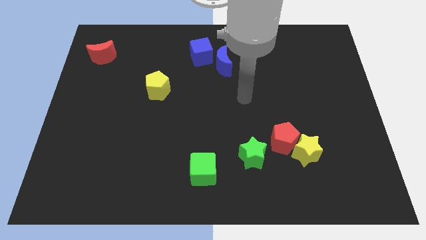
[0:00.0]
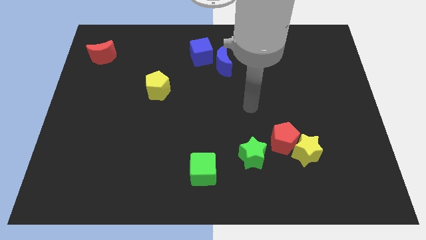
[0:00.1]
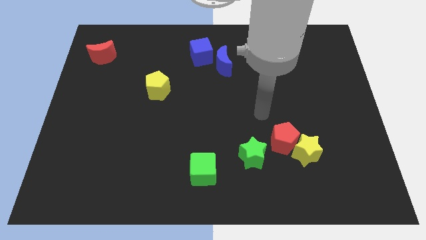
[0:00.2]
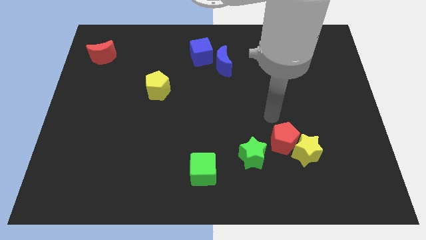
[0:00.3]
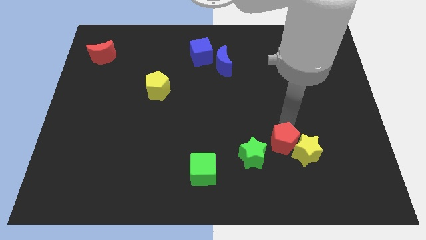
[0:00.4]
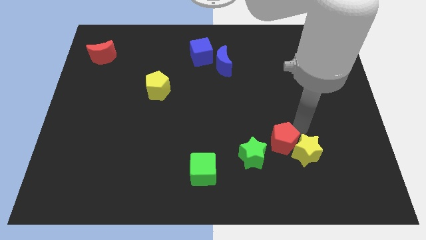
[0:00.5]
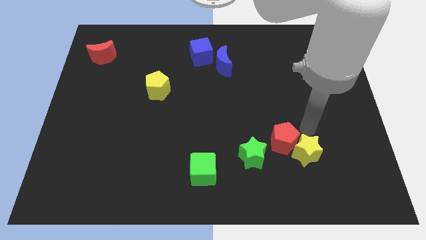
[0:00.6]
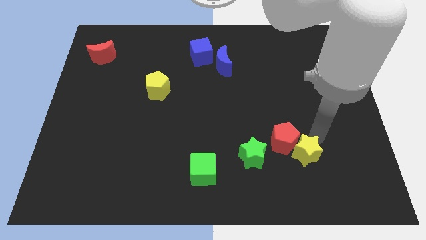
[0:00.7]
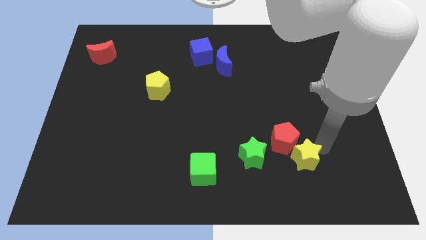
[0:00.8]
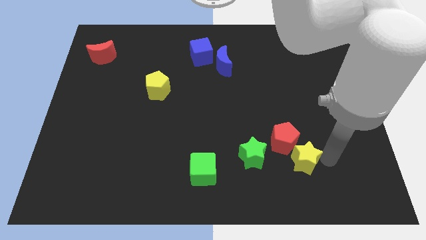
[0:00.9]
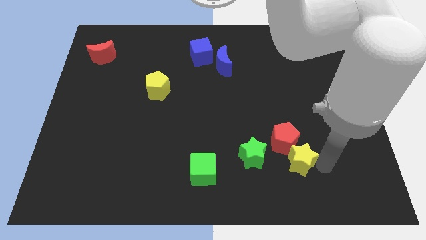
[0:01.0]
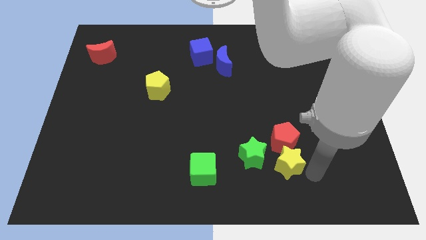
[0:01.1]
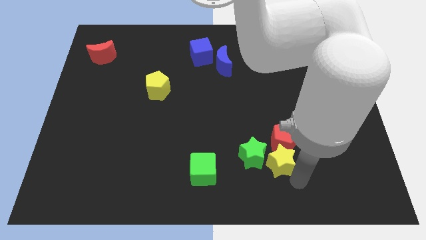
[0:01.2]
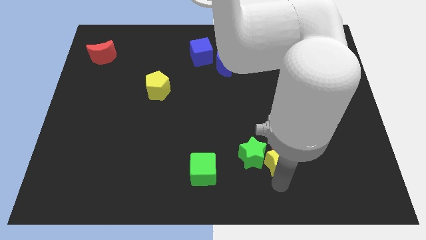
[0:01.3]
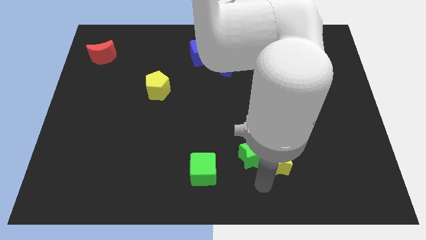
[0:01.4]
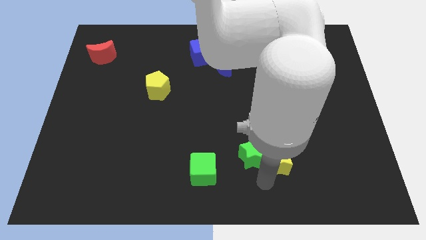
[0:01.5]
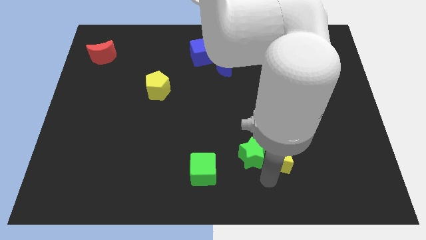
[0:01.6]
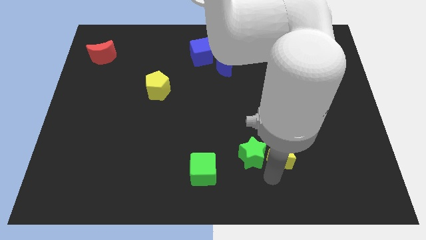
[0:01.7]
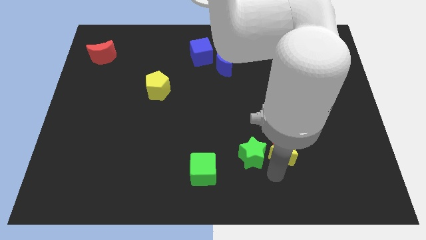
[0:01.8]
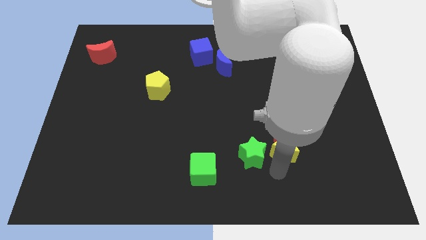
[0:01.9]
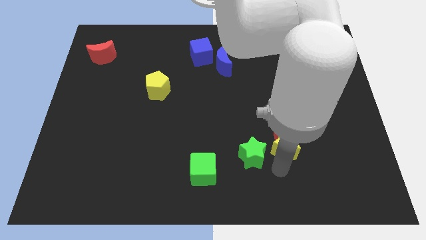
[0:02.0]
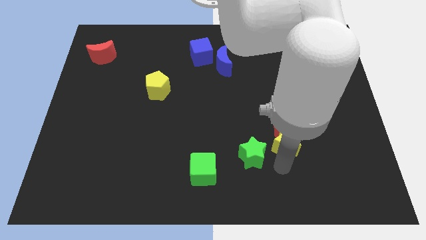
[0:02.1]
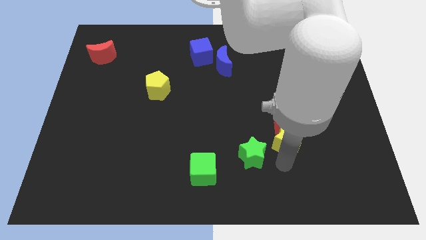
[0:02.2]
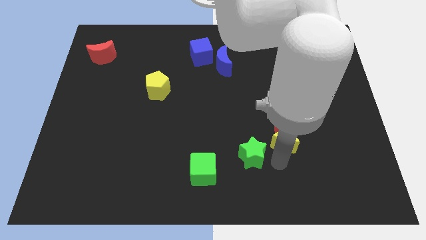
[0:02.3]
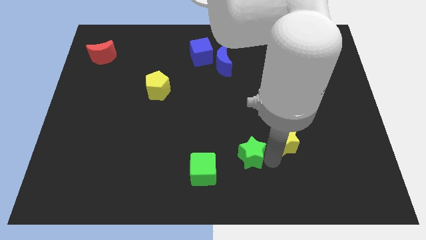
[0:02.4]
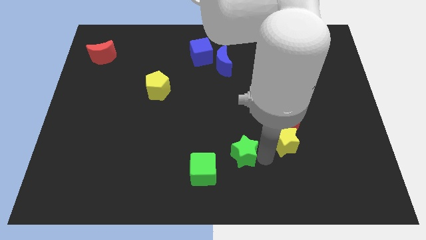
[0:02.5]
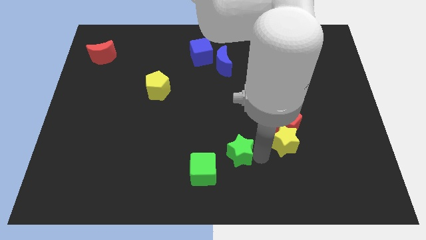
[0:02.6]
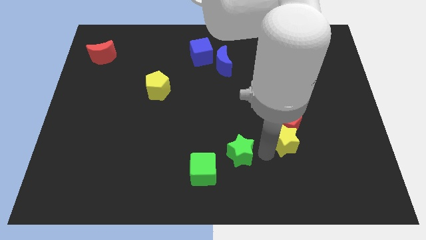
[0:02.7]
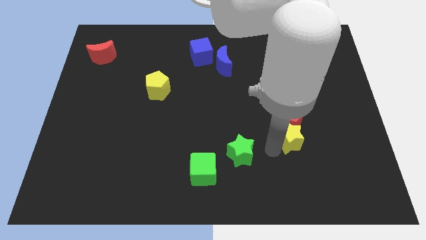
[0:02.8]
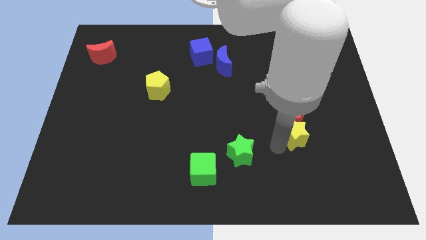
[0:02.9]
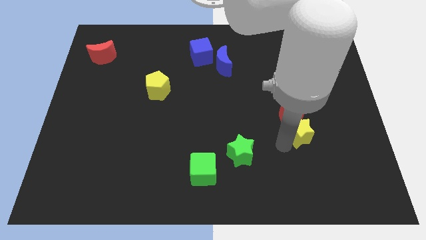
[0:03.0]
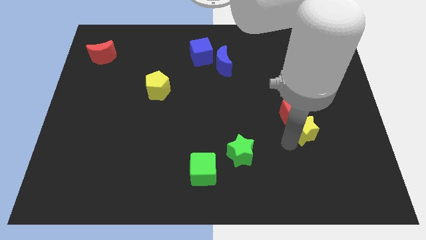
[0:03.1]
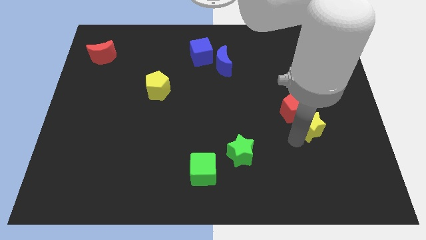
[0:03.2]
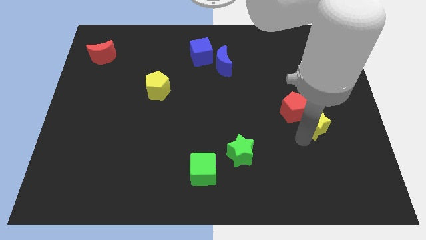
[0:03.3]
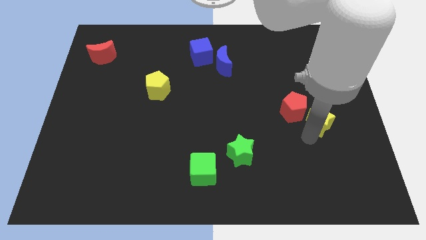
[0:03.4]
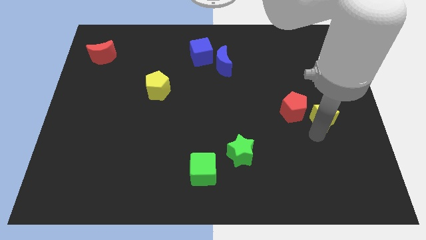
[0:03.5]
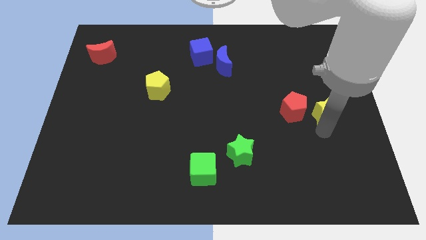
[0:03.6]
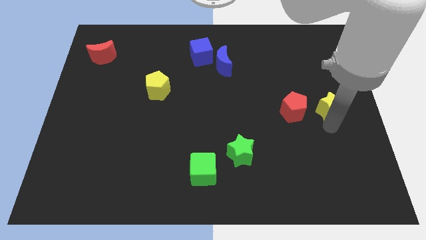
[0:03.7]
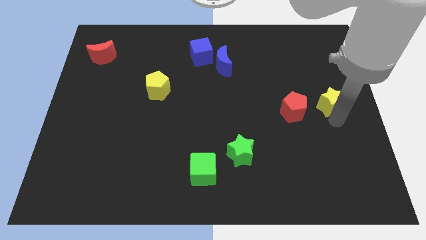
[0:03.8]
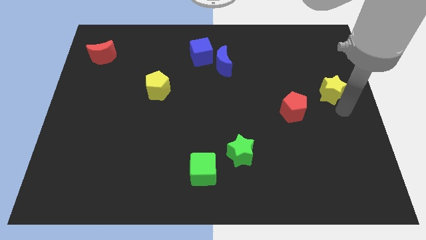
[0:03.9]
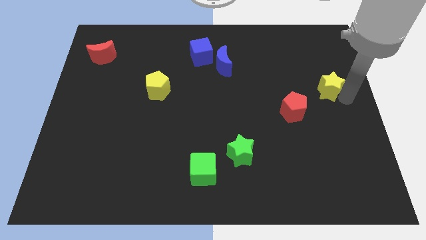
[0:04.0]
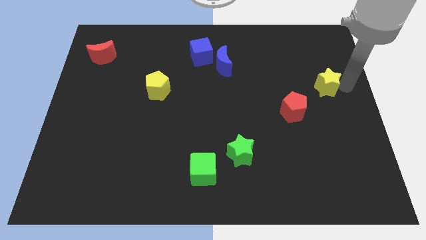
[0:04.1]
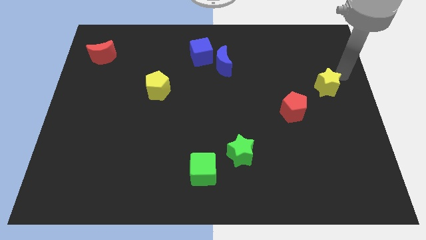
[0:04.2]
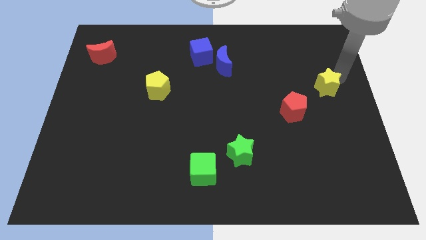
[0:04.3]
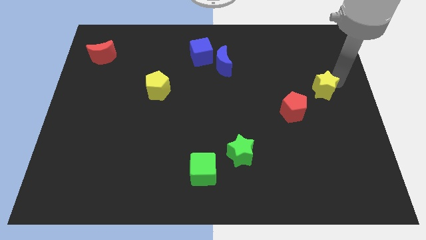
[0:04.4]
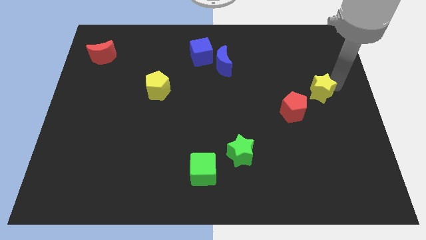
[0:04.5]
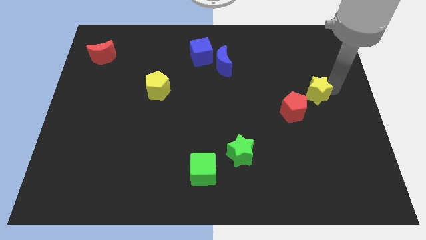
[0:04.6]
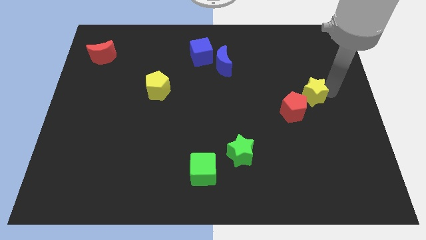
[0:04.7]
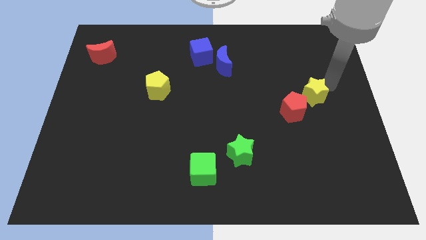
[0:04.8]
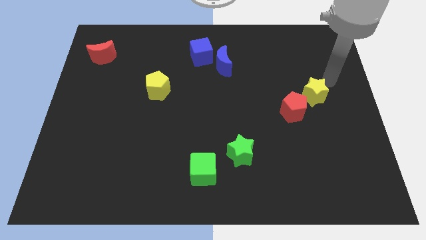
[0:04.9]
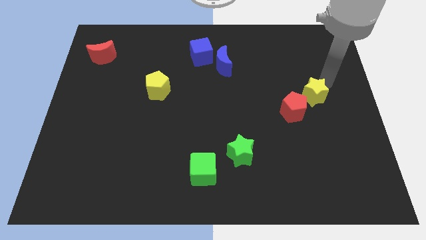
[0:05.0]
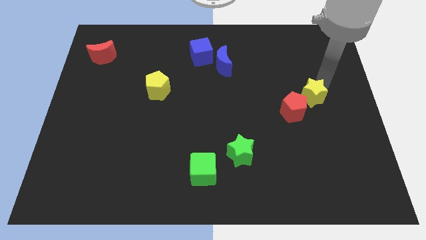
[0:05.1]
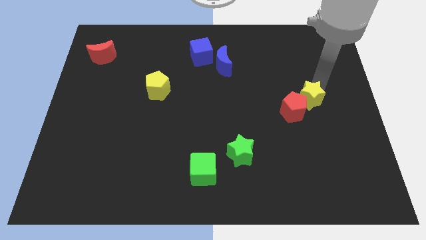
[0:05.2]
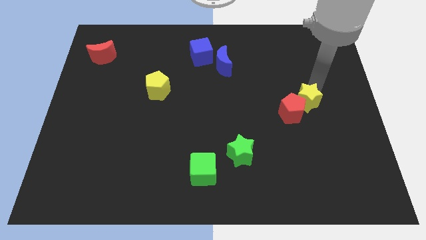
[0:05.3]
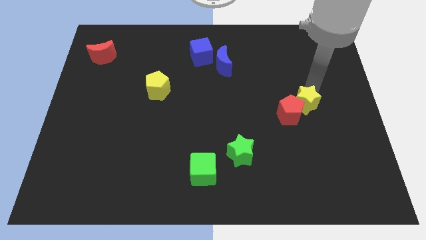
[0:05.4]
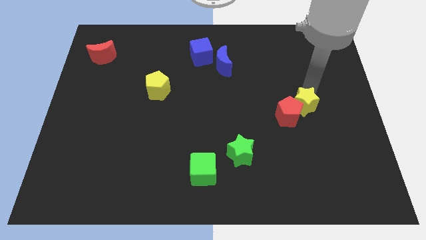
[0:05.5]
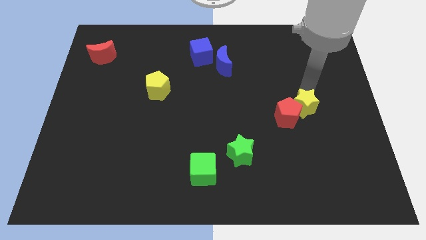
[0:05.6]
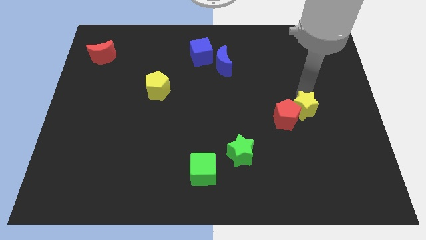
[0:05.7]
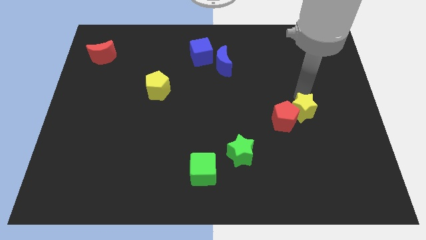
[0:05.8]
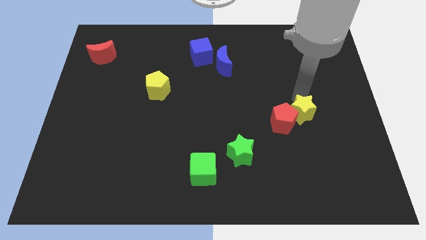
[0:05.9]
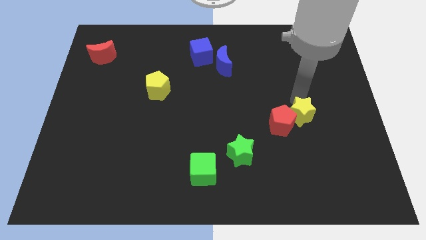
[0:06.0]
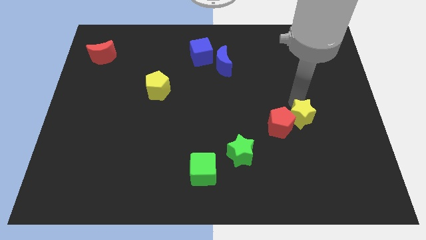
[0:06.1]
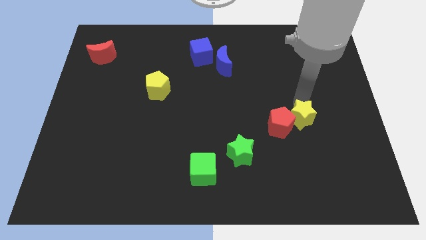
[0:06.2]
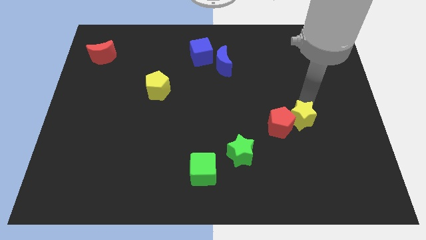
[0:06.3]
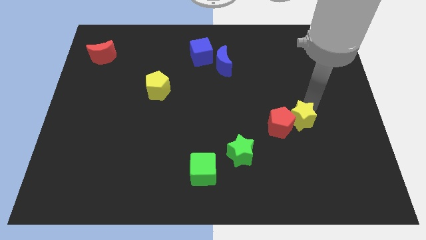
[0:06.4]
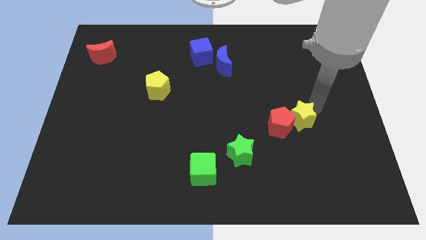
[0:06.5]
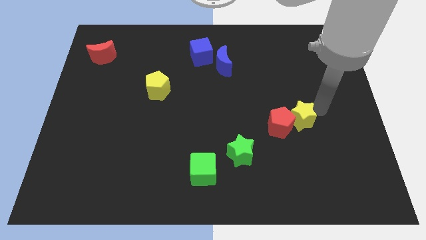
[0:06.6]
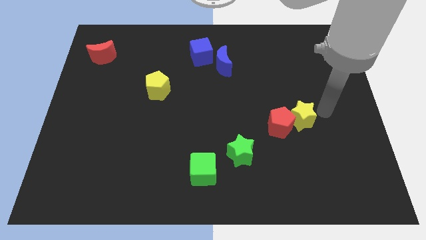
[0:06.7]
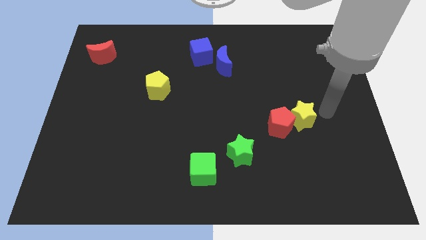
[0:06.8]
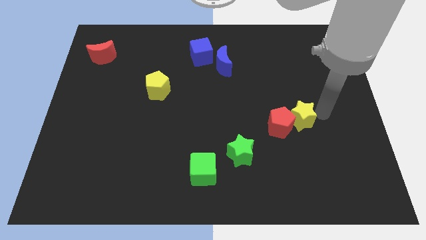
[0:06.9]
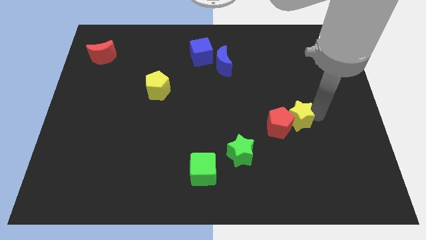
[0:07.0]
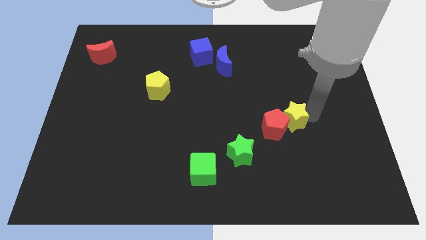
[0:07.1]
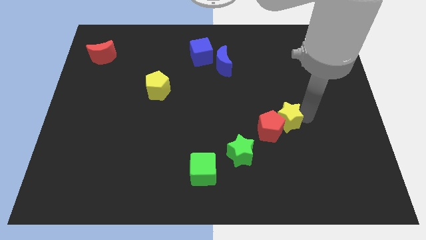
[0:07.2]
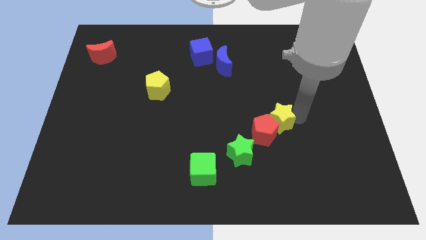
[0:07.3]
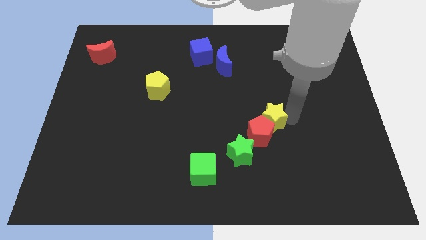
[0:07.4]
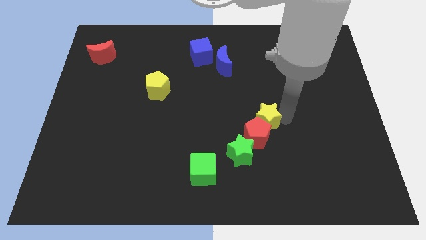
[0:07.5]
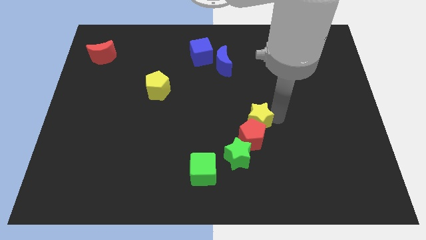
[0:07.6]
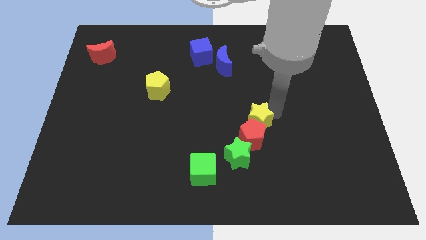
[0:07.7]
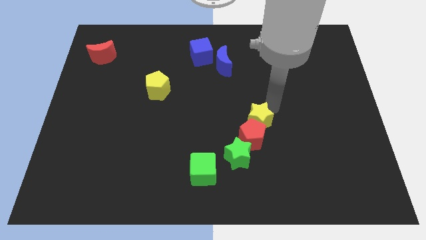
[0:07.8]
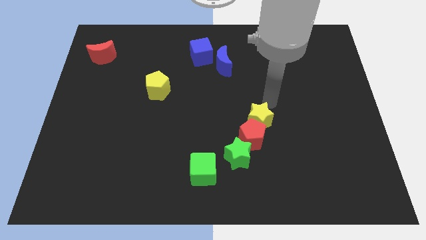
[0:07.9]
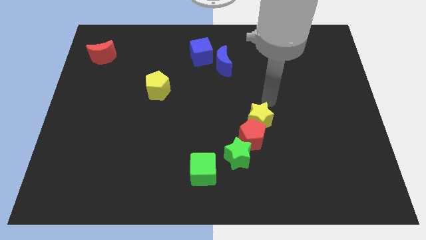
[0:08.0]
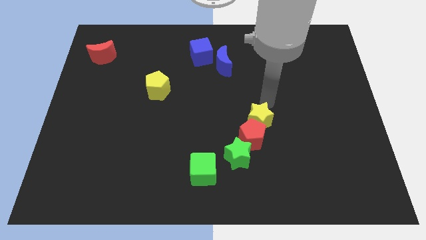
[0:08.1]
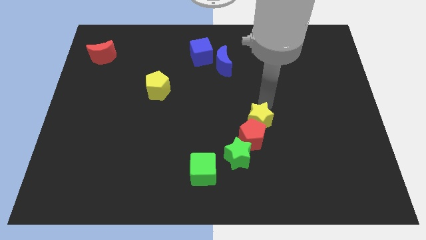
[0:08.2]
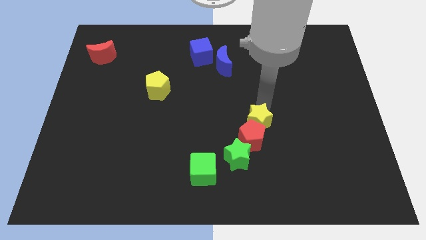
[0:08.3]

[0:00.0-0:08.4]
move the yellow star slightly to the left
